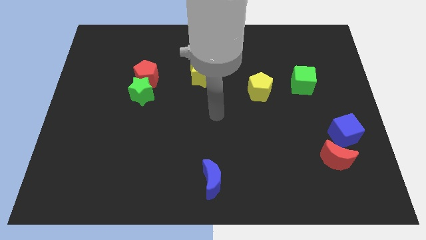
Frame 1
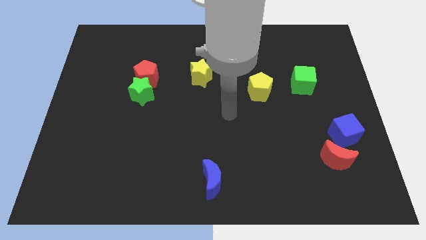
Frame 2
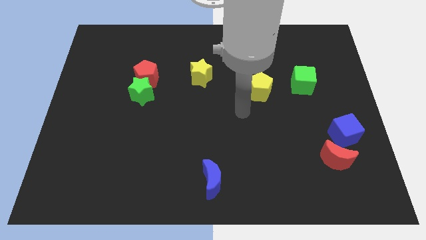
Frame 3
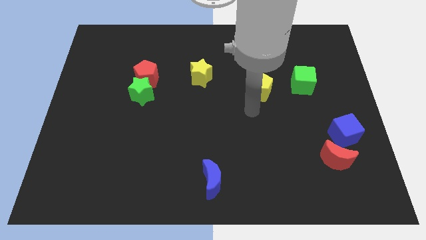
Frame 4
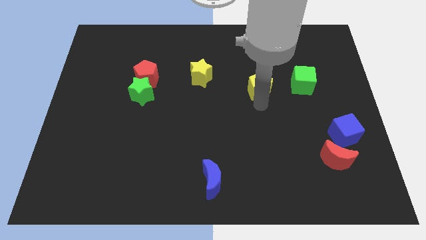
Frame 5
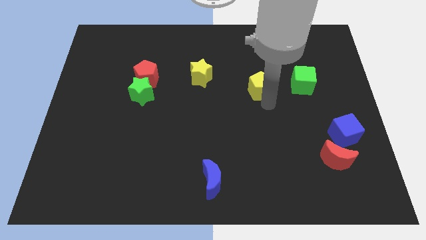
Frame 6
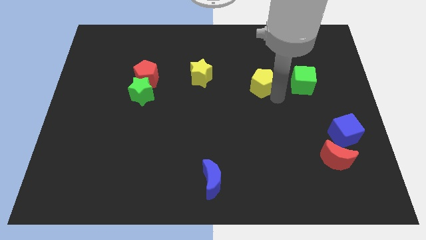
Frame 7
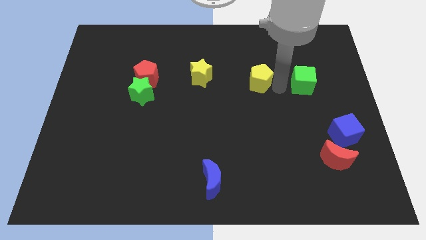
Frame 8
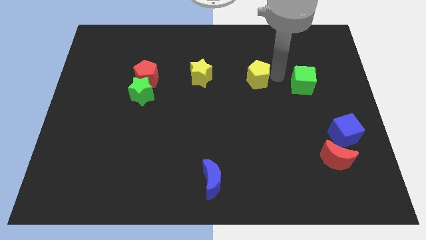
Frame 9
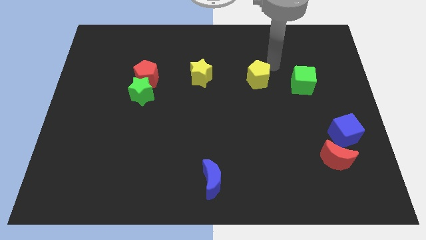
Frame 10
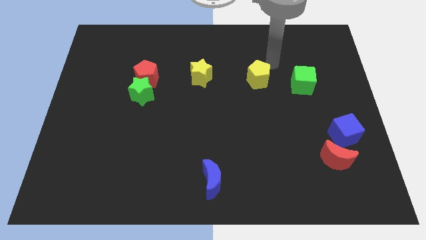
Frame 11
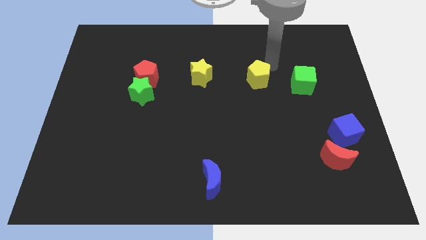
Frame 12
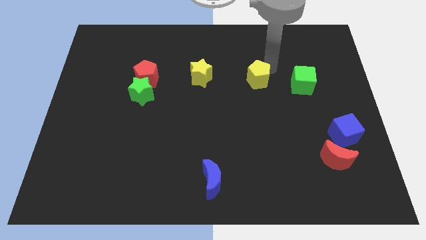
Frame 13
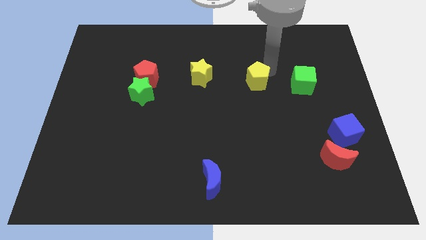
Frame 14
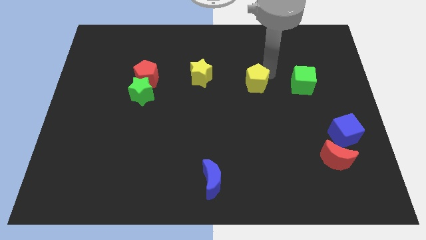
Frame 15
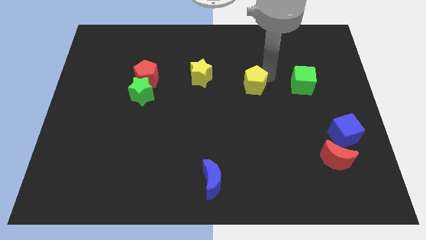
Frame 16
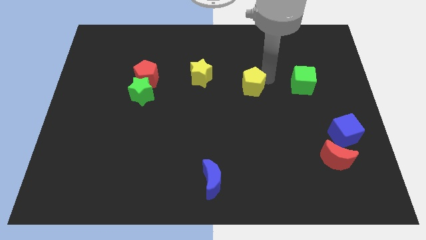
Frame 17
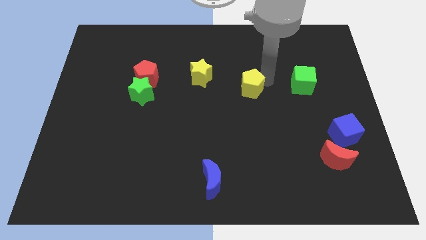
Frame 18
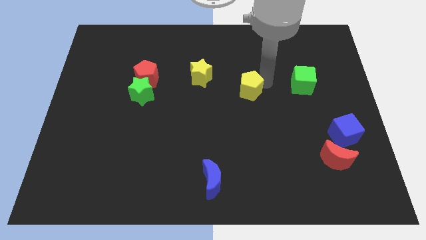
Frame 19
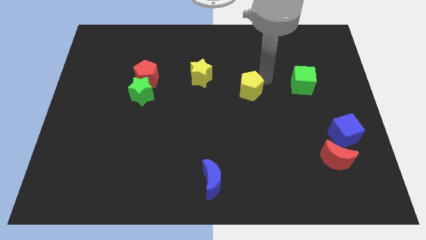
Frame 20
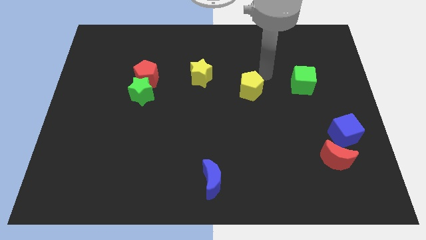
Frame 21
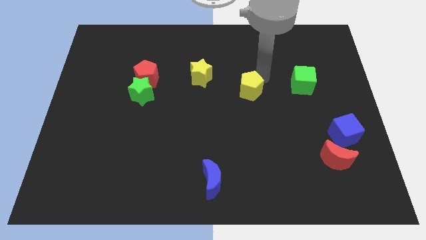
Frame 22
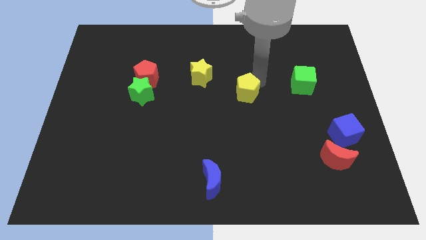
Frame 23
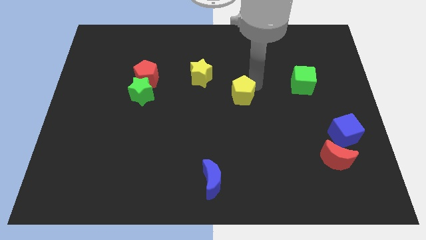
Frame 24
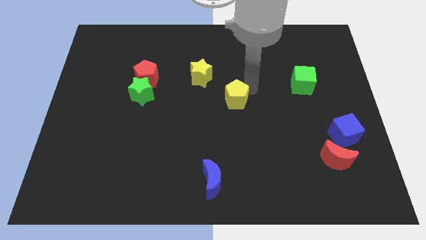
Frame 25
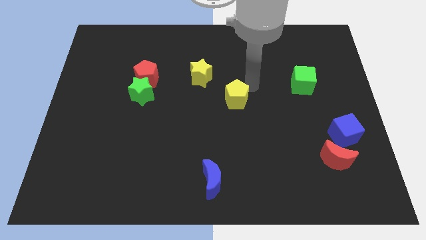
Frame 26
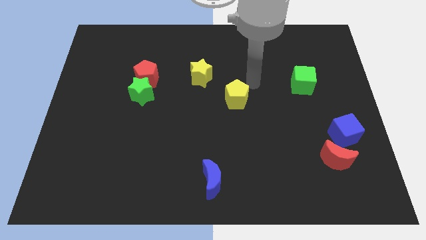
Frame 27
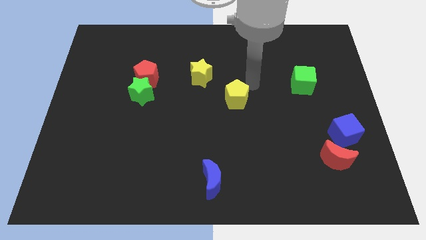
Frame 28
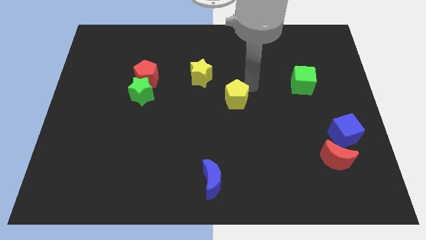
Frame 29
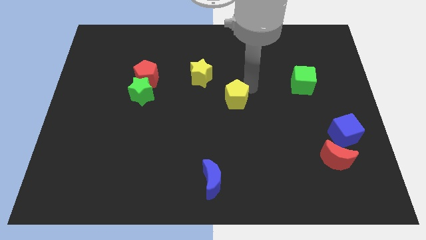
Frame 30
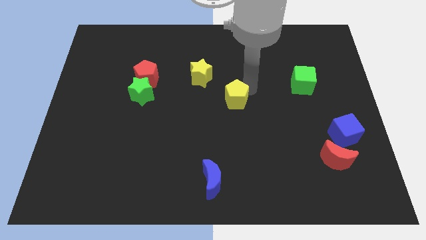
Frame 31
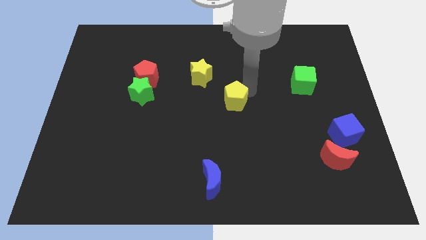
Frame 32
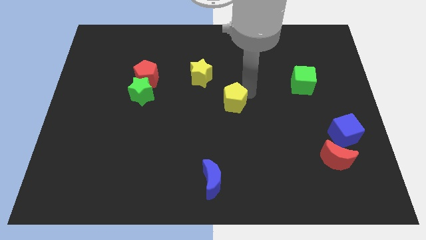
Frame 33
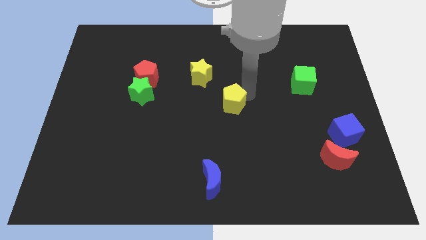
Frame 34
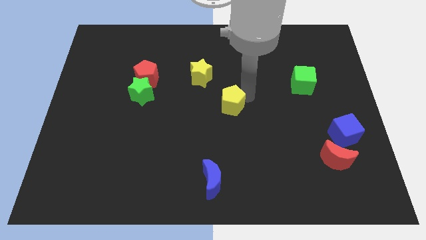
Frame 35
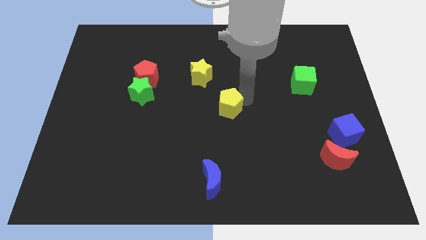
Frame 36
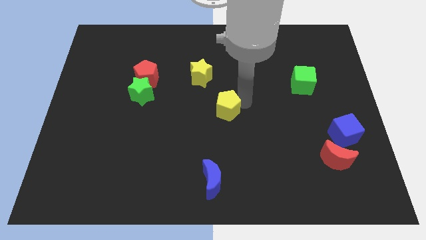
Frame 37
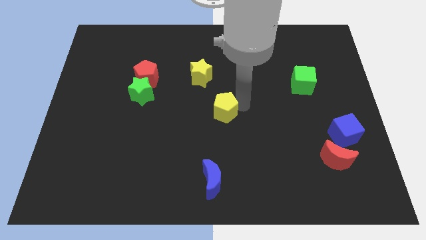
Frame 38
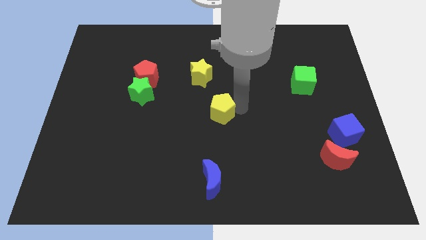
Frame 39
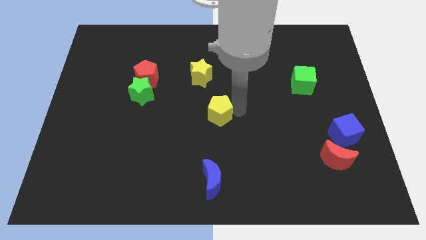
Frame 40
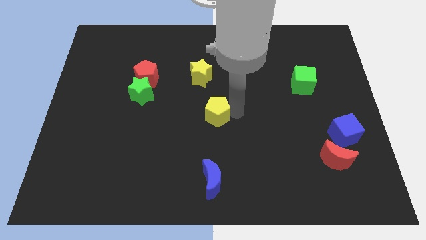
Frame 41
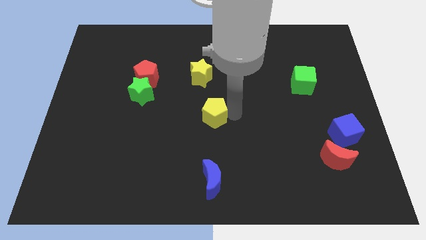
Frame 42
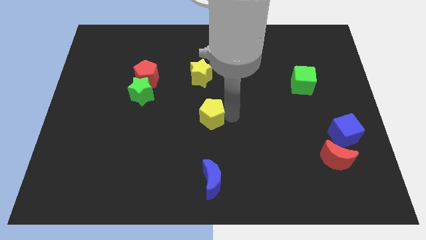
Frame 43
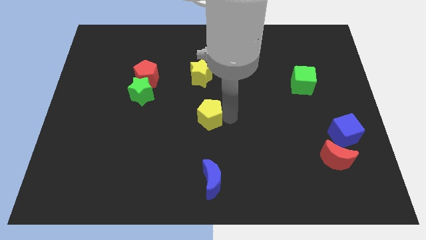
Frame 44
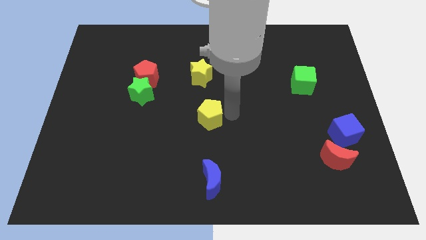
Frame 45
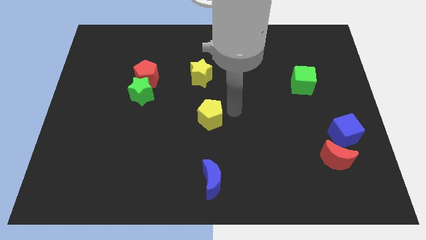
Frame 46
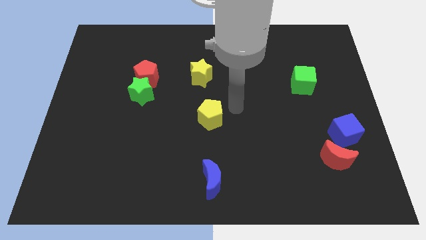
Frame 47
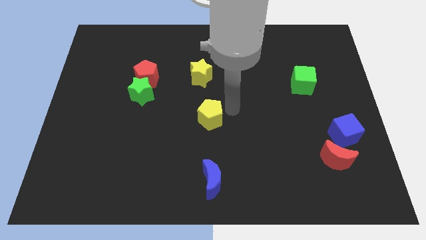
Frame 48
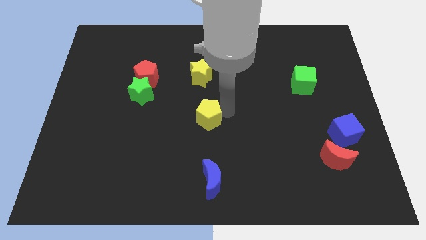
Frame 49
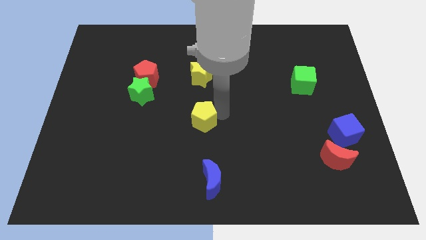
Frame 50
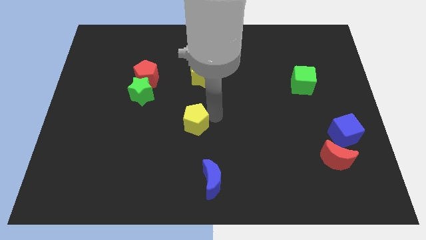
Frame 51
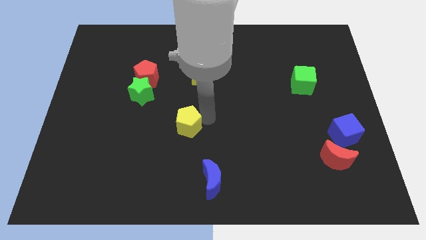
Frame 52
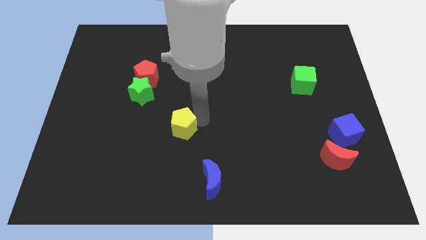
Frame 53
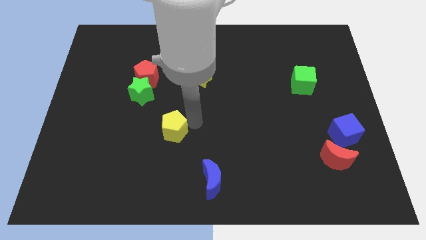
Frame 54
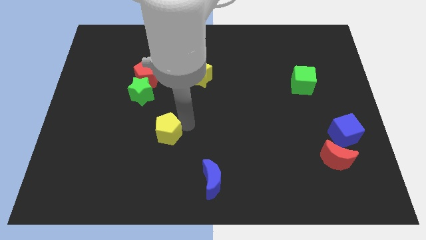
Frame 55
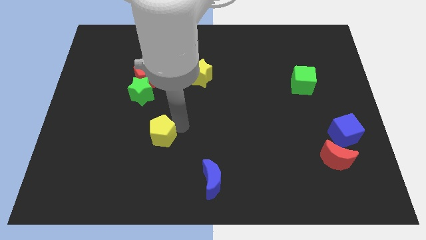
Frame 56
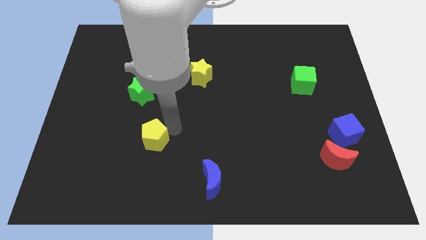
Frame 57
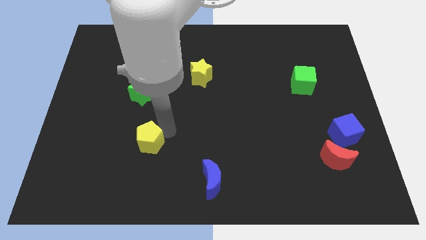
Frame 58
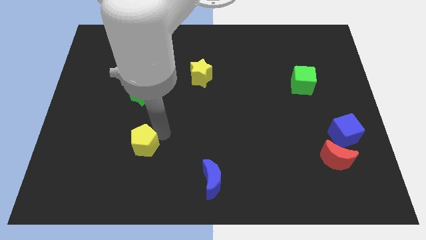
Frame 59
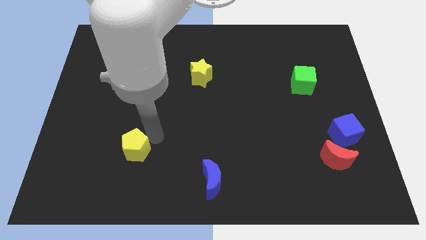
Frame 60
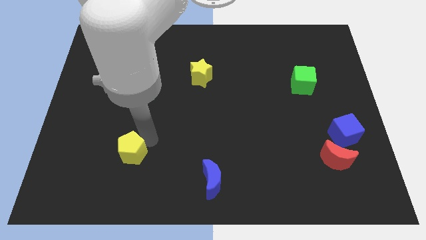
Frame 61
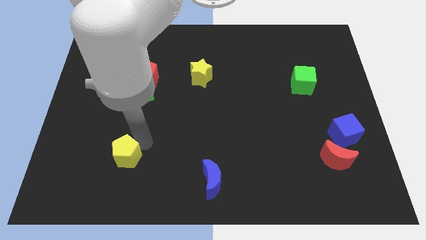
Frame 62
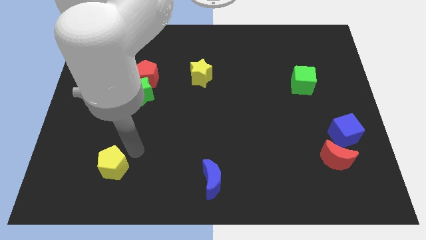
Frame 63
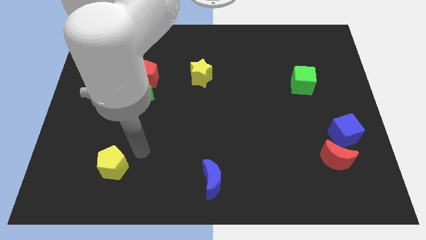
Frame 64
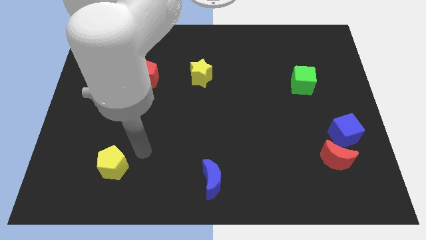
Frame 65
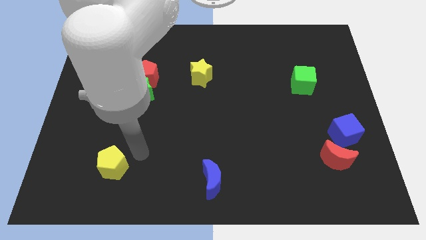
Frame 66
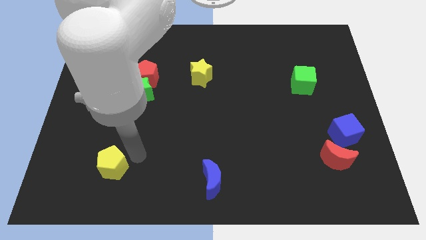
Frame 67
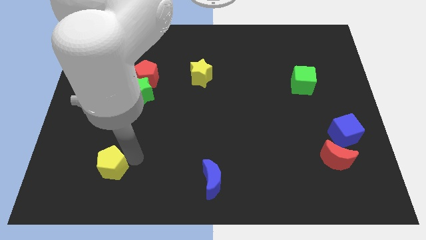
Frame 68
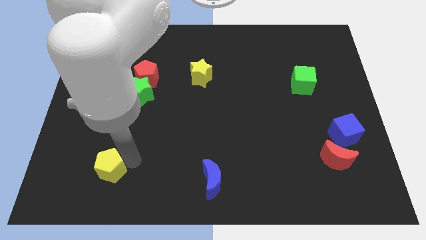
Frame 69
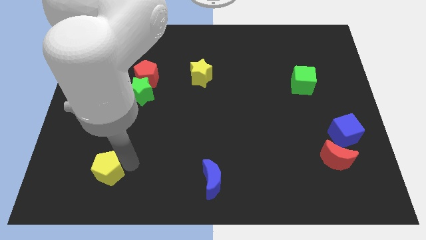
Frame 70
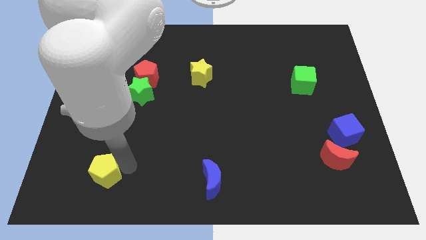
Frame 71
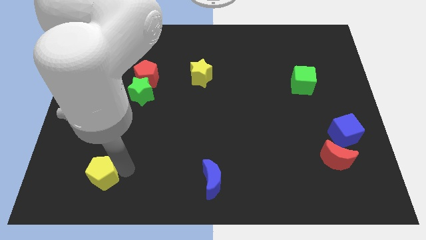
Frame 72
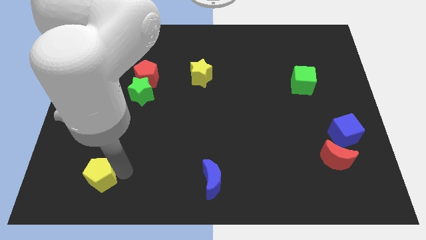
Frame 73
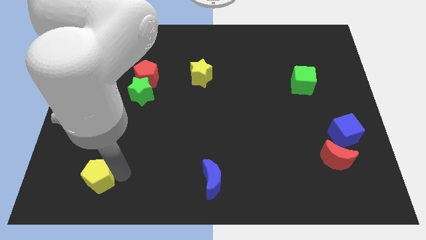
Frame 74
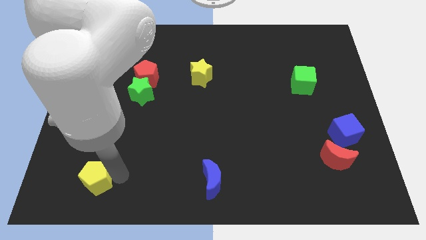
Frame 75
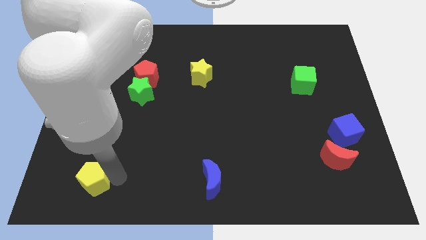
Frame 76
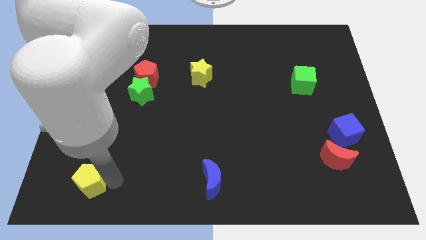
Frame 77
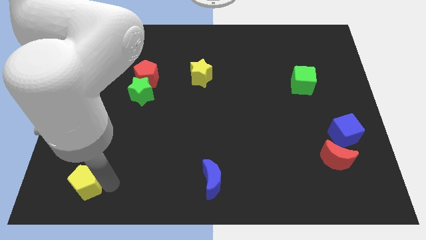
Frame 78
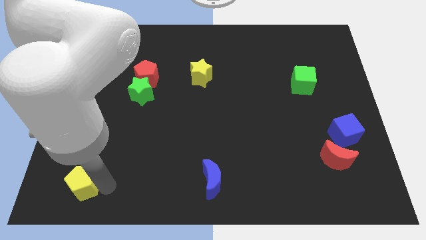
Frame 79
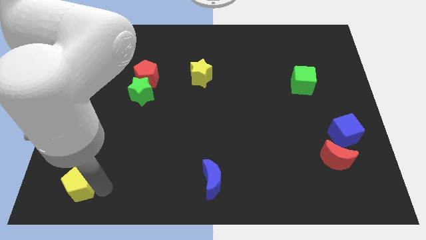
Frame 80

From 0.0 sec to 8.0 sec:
slide the yellow pentagon to the bottom left
